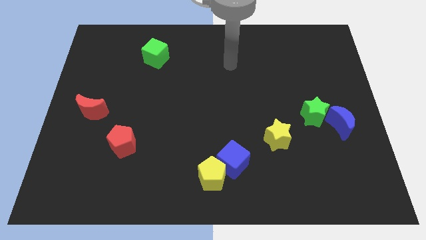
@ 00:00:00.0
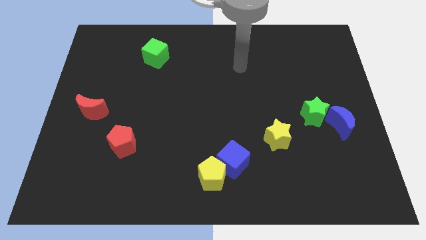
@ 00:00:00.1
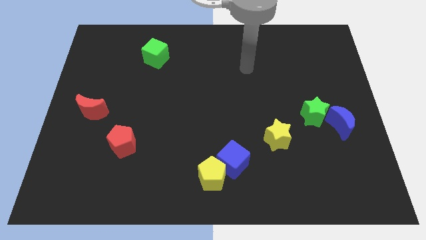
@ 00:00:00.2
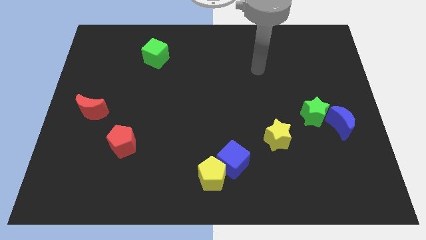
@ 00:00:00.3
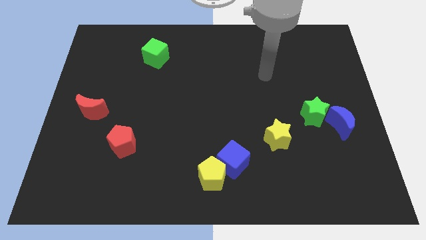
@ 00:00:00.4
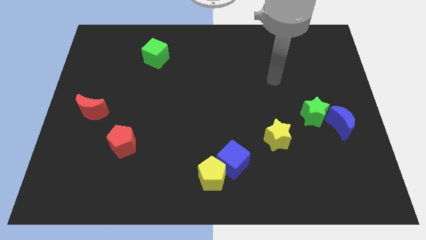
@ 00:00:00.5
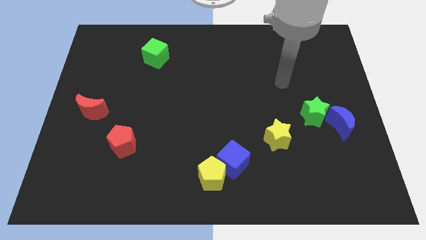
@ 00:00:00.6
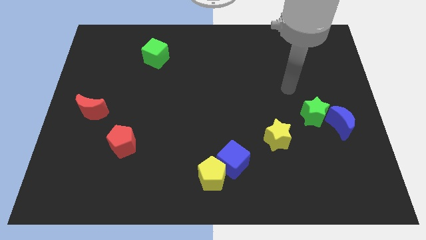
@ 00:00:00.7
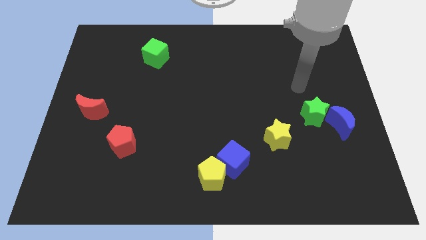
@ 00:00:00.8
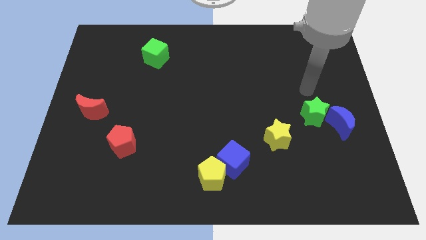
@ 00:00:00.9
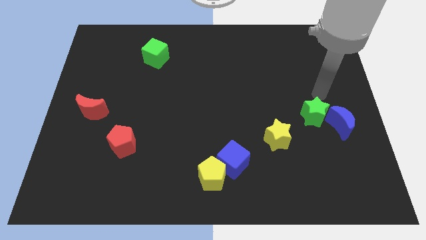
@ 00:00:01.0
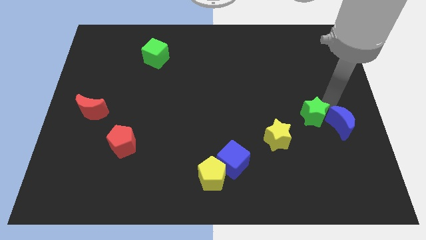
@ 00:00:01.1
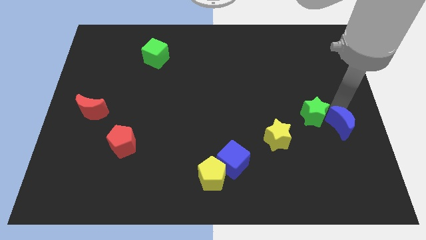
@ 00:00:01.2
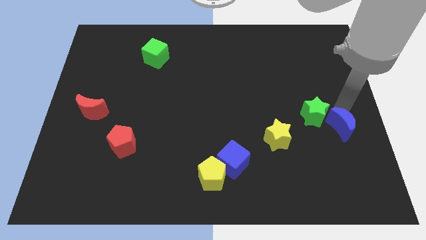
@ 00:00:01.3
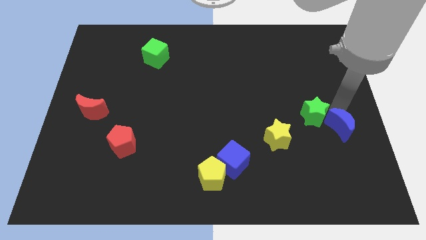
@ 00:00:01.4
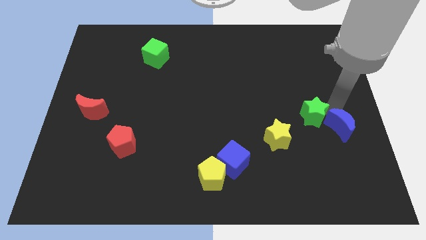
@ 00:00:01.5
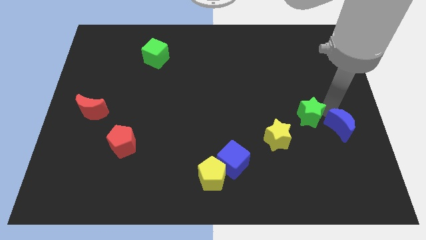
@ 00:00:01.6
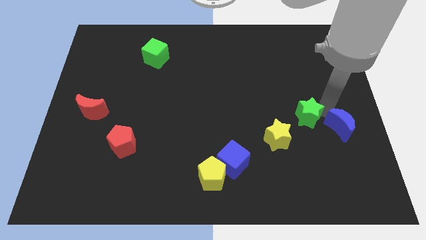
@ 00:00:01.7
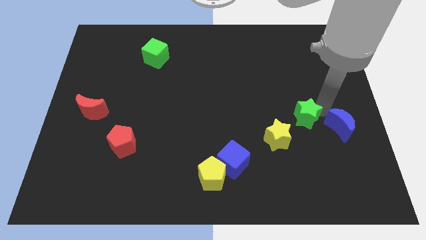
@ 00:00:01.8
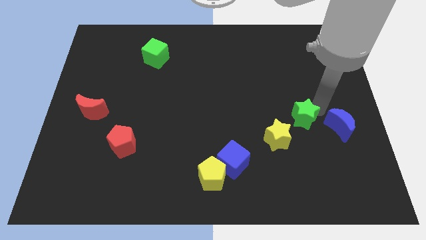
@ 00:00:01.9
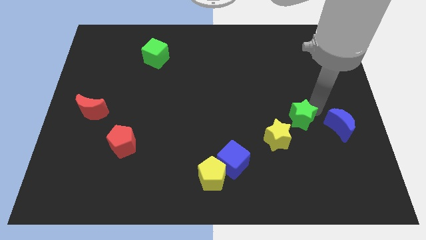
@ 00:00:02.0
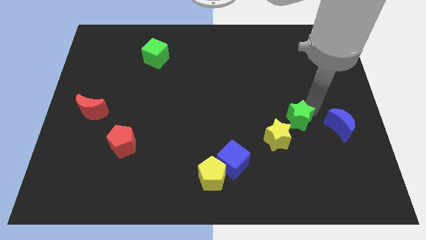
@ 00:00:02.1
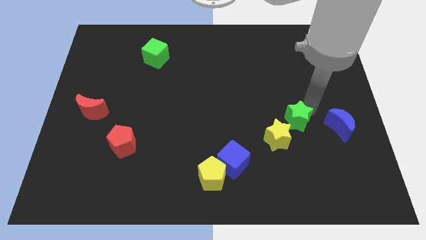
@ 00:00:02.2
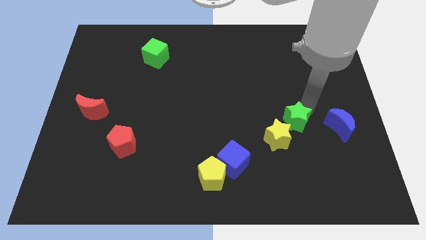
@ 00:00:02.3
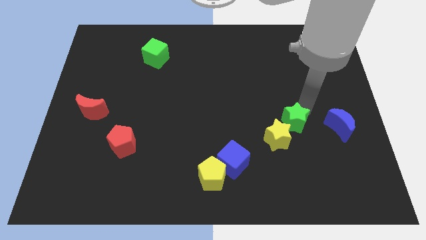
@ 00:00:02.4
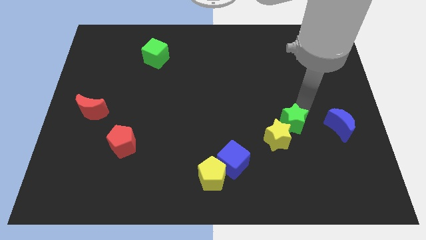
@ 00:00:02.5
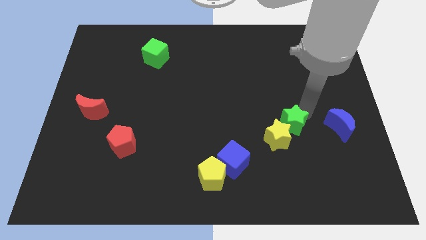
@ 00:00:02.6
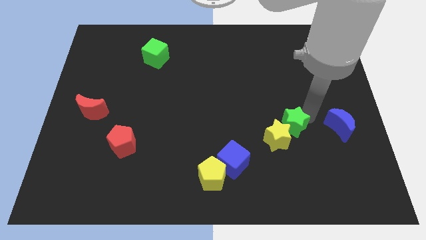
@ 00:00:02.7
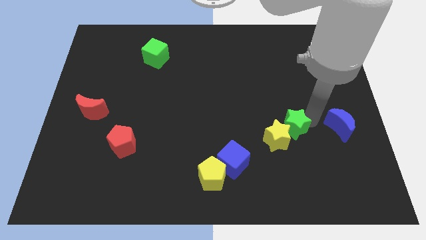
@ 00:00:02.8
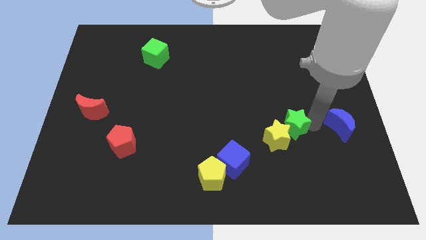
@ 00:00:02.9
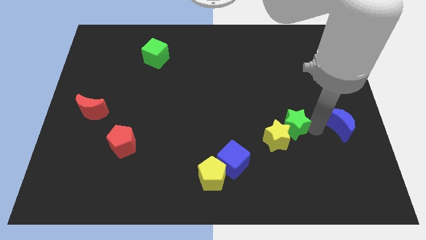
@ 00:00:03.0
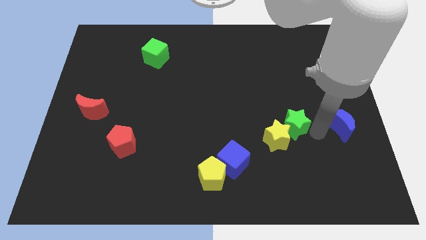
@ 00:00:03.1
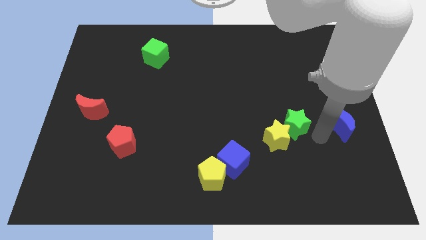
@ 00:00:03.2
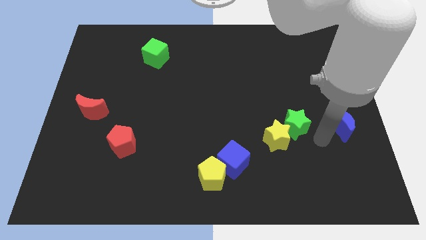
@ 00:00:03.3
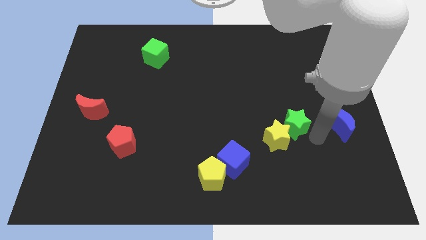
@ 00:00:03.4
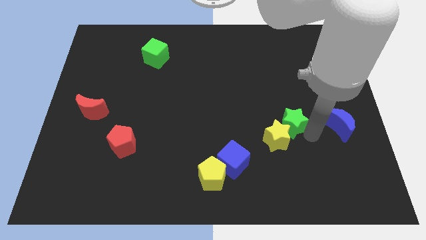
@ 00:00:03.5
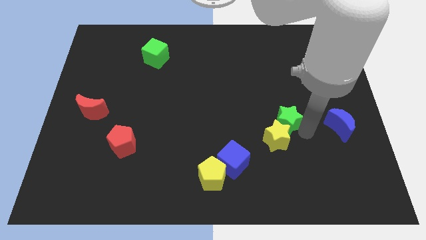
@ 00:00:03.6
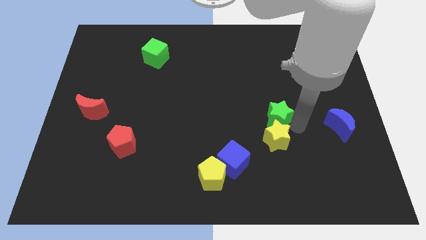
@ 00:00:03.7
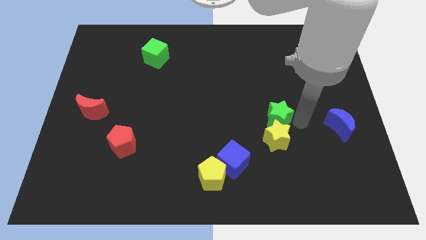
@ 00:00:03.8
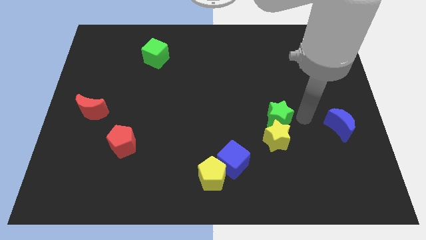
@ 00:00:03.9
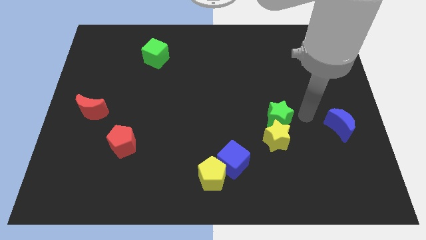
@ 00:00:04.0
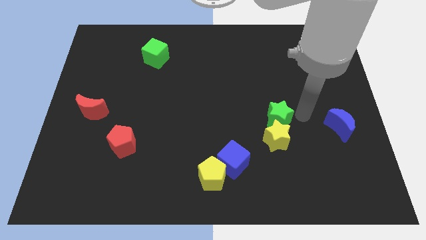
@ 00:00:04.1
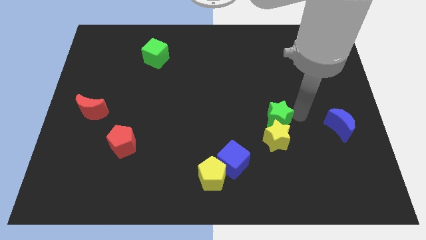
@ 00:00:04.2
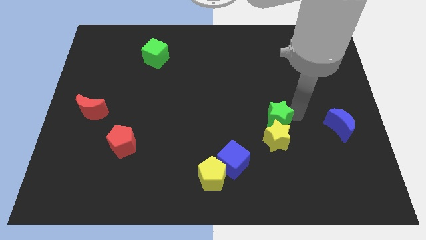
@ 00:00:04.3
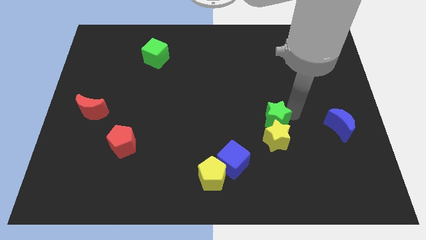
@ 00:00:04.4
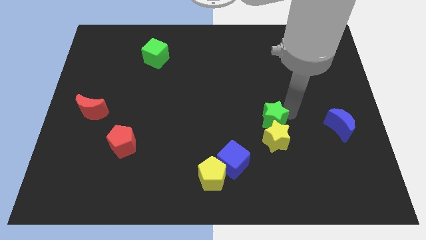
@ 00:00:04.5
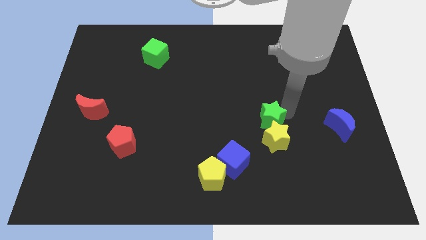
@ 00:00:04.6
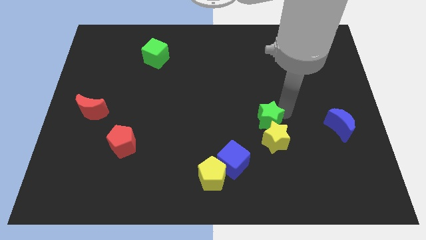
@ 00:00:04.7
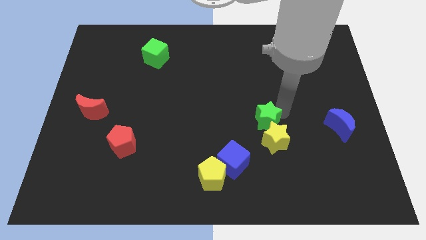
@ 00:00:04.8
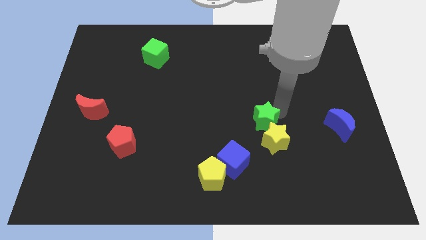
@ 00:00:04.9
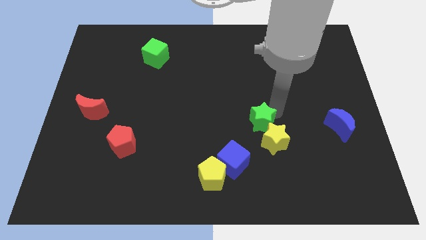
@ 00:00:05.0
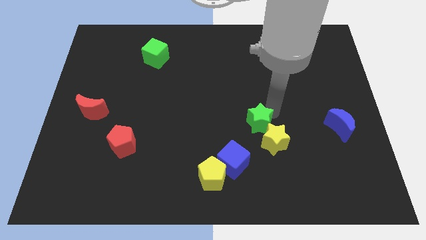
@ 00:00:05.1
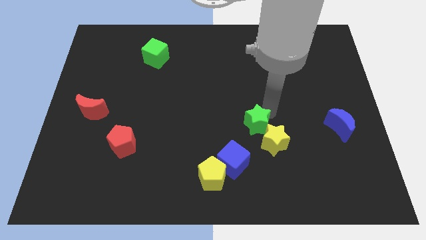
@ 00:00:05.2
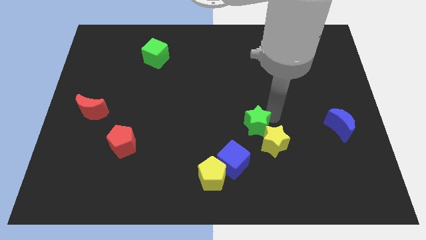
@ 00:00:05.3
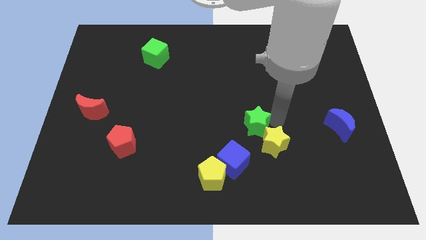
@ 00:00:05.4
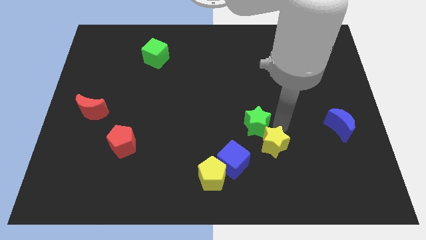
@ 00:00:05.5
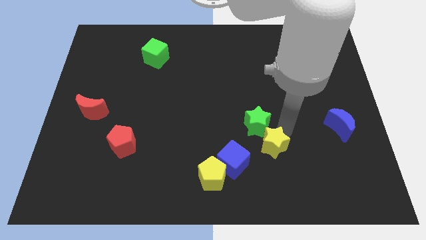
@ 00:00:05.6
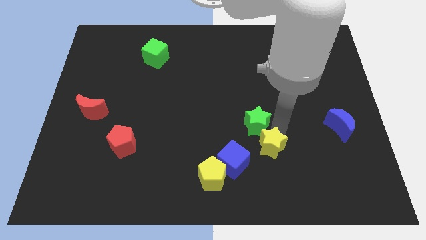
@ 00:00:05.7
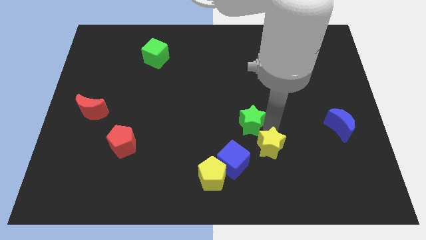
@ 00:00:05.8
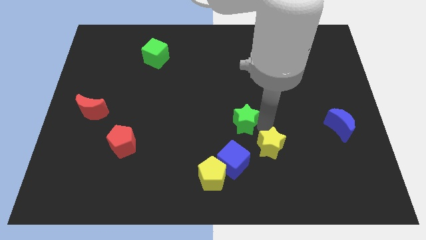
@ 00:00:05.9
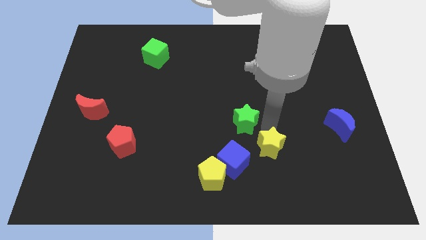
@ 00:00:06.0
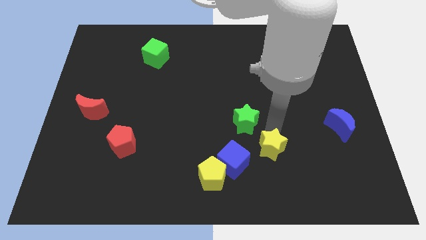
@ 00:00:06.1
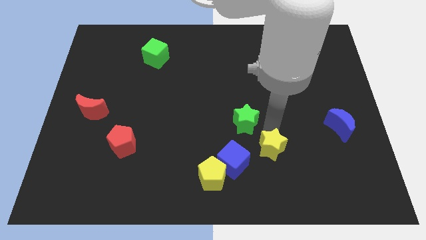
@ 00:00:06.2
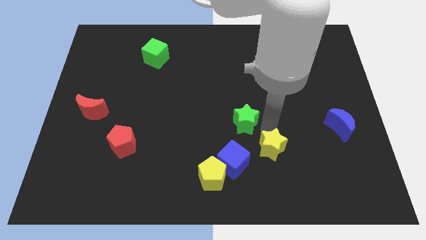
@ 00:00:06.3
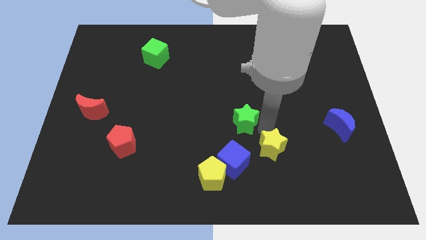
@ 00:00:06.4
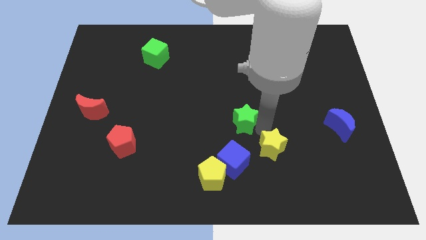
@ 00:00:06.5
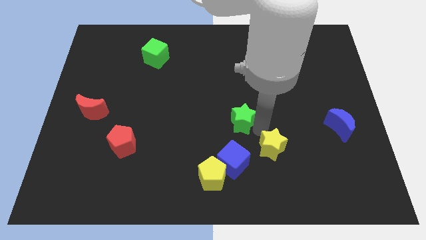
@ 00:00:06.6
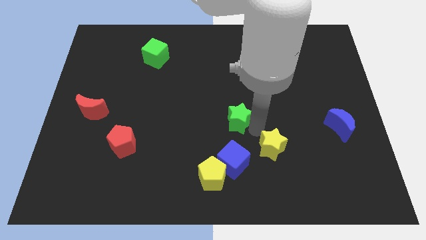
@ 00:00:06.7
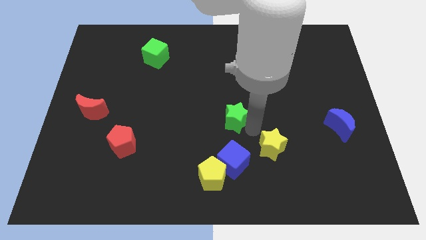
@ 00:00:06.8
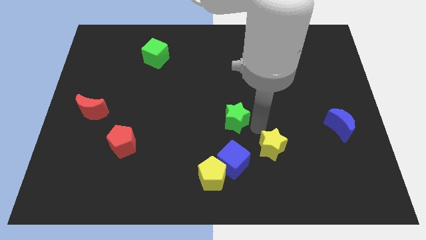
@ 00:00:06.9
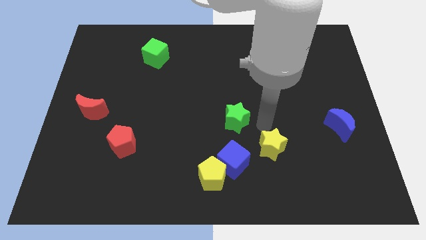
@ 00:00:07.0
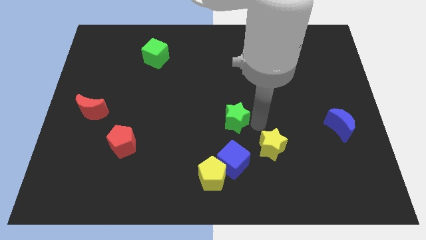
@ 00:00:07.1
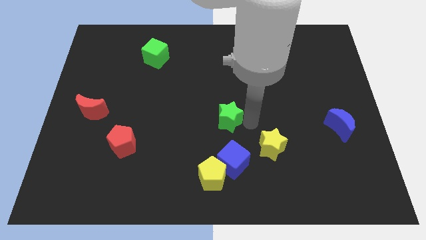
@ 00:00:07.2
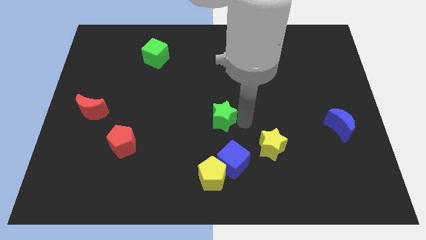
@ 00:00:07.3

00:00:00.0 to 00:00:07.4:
move the green star to the left

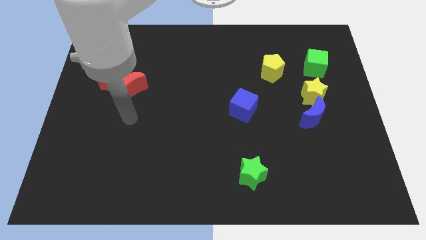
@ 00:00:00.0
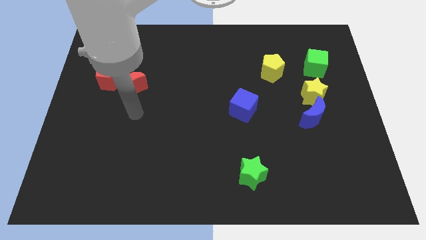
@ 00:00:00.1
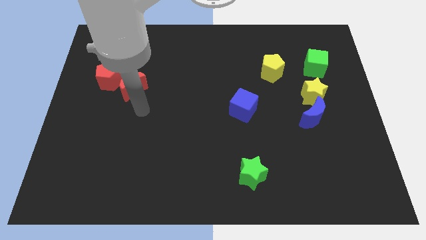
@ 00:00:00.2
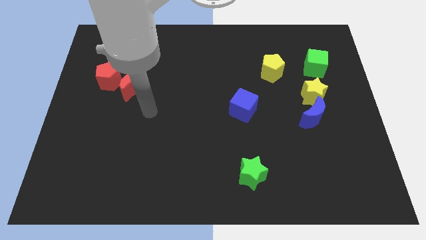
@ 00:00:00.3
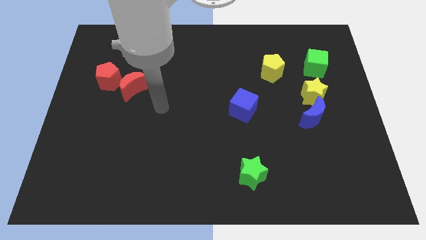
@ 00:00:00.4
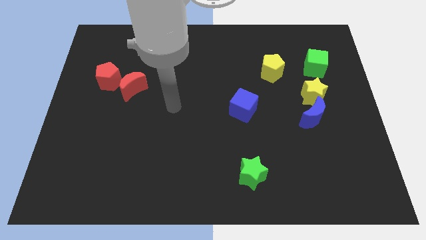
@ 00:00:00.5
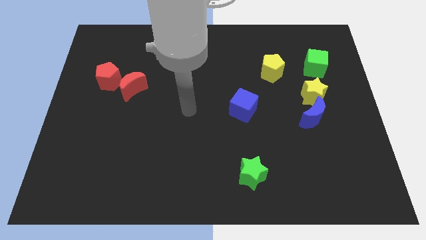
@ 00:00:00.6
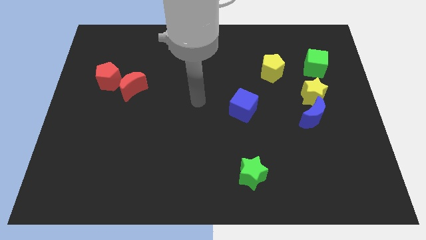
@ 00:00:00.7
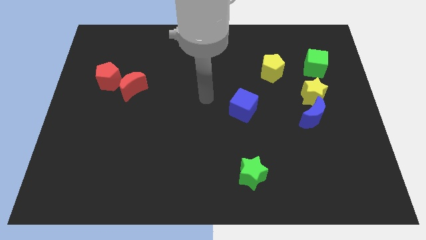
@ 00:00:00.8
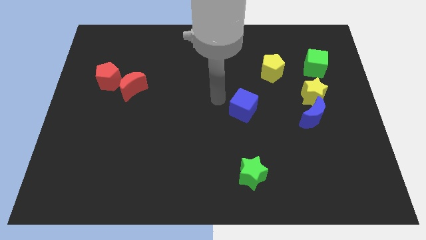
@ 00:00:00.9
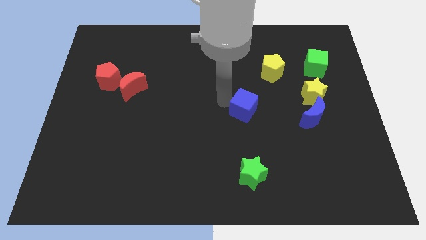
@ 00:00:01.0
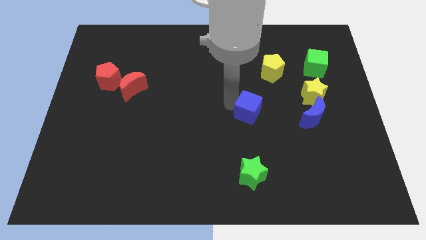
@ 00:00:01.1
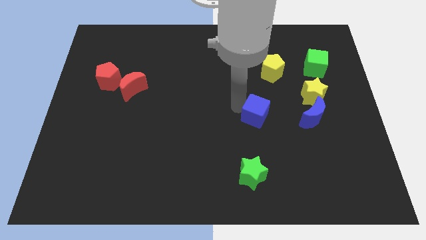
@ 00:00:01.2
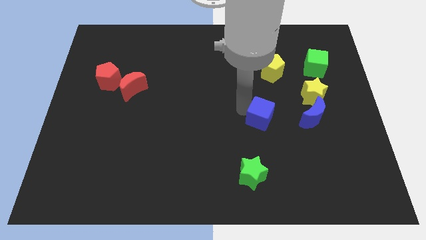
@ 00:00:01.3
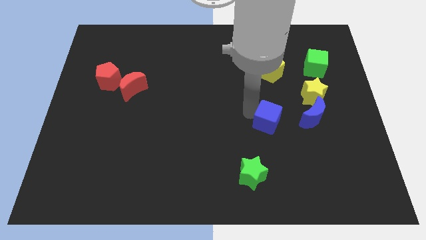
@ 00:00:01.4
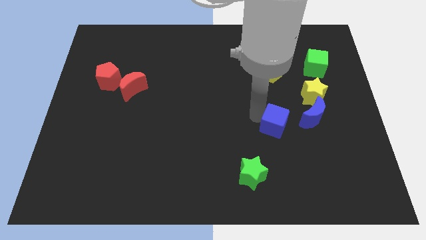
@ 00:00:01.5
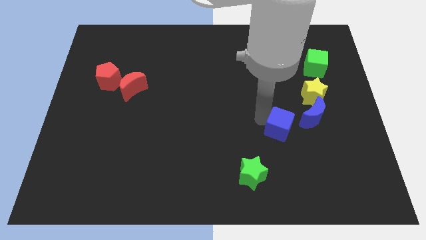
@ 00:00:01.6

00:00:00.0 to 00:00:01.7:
slightly slide the blue cube to the right
